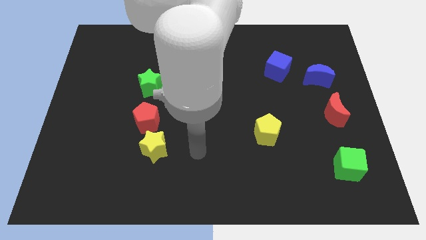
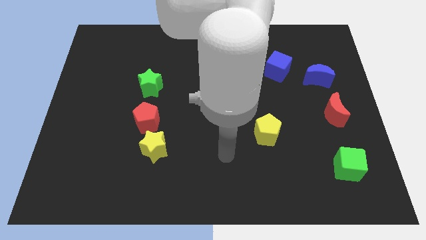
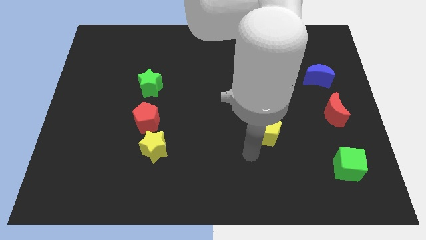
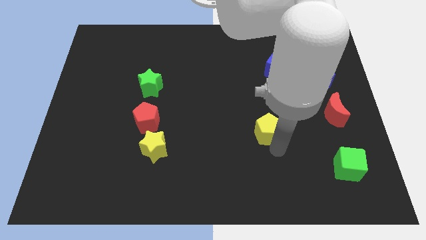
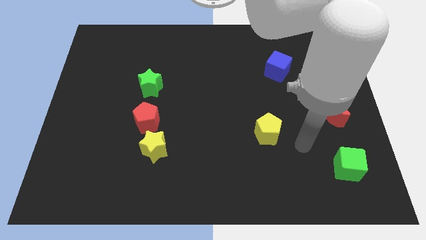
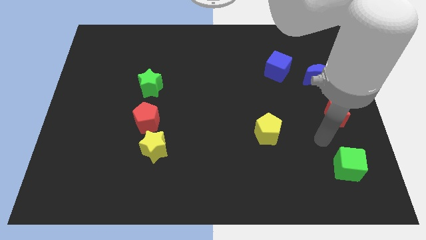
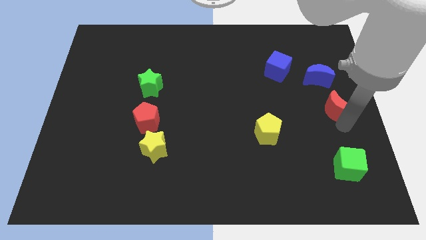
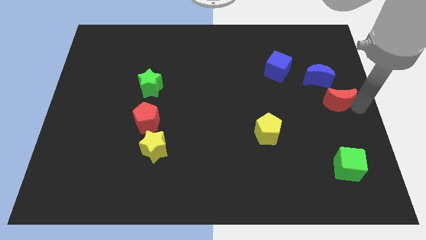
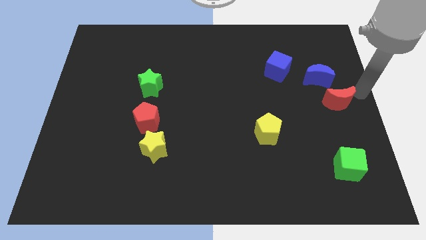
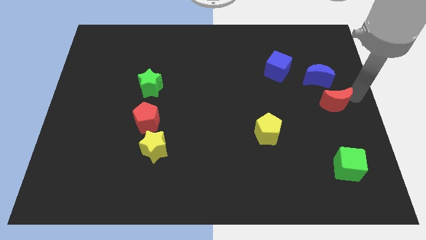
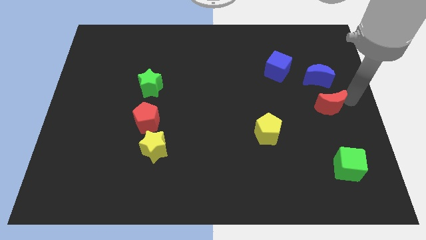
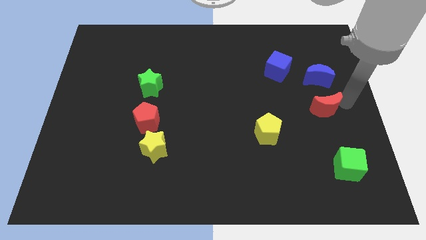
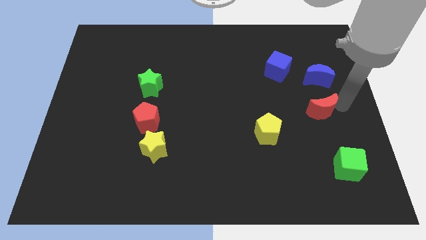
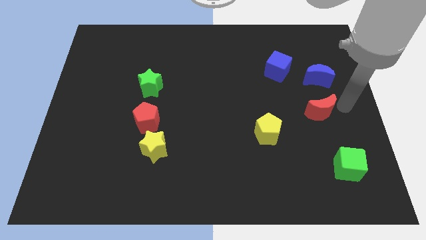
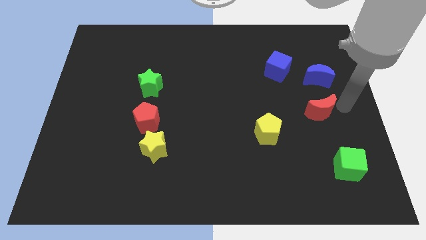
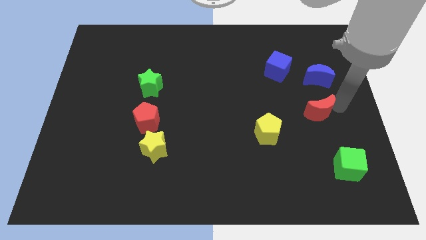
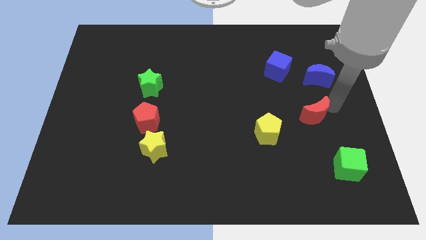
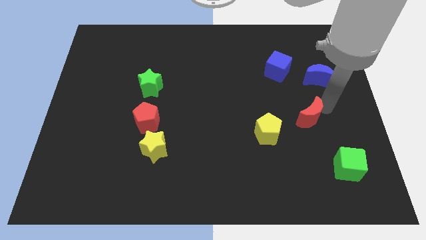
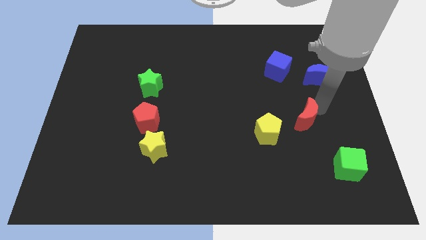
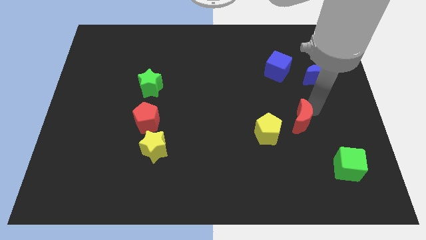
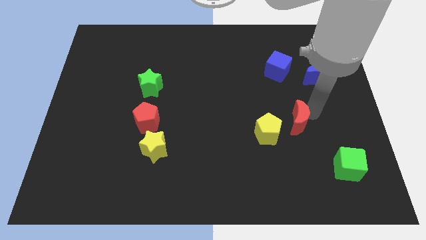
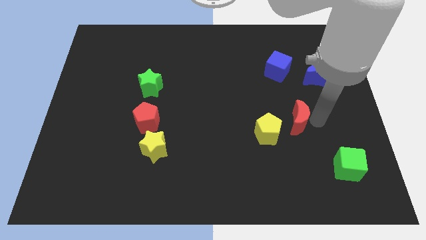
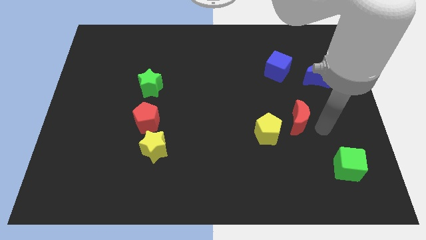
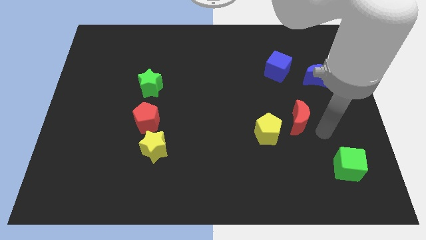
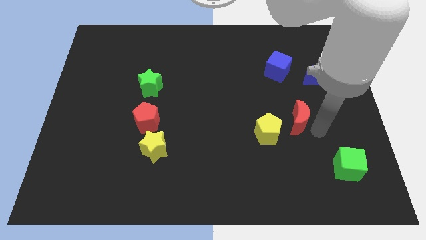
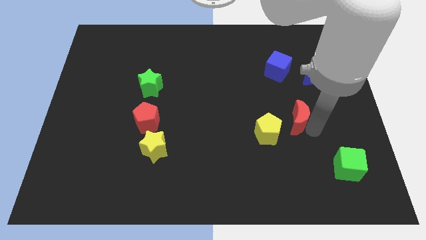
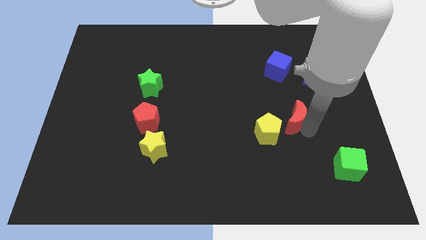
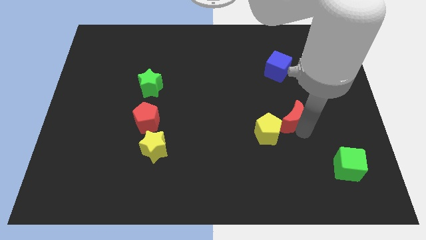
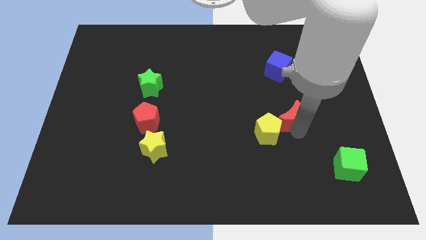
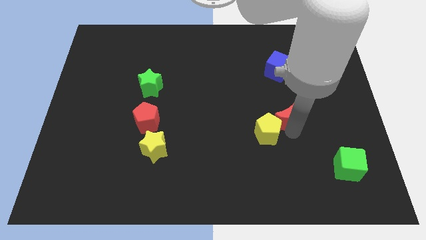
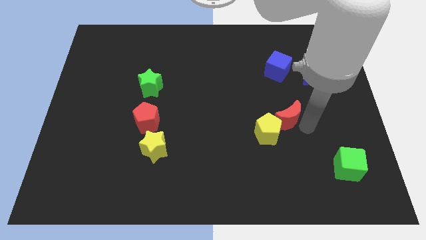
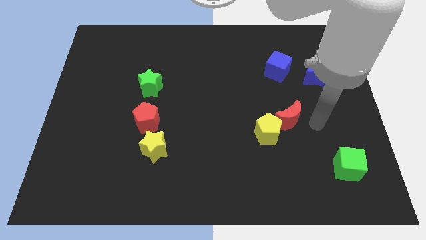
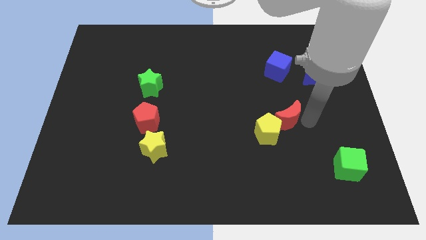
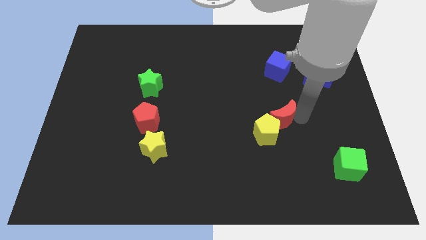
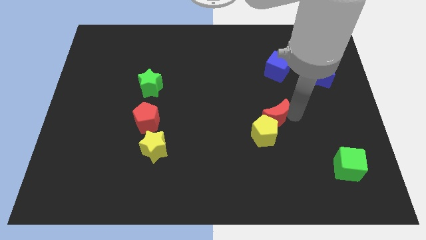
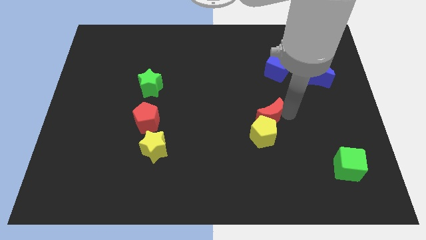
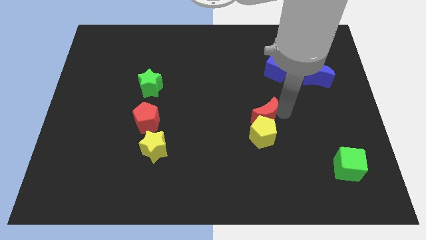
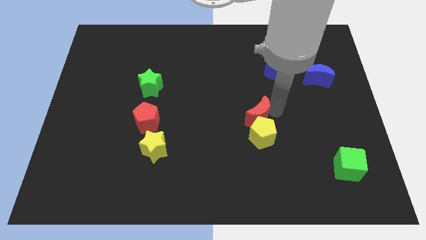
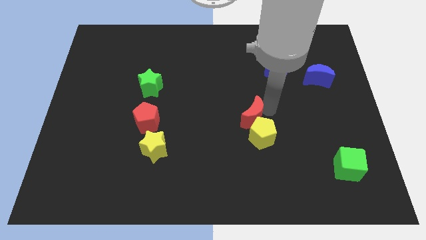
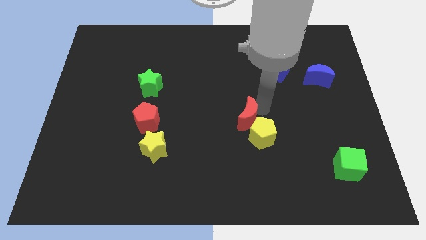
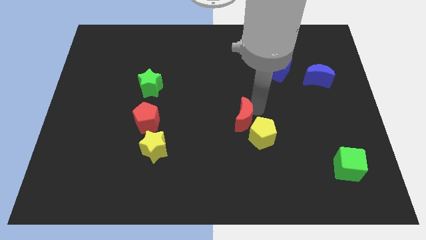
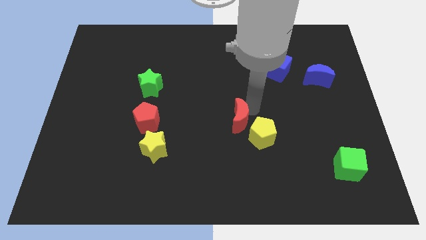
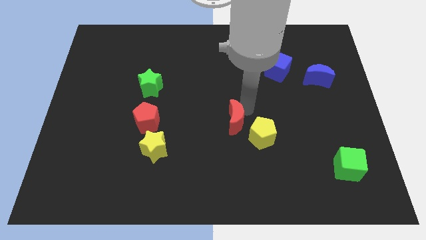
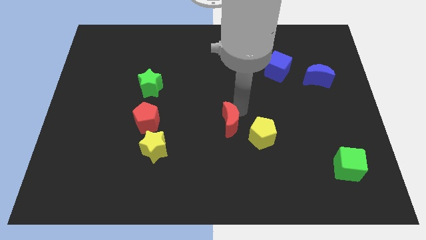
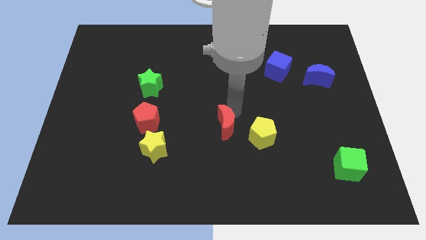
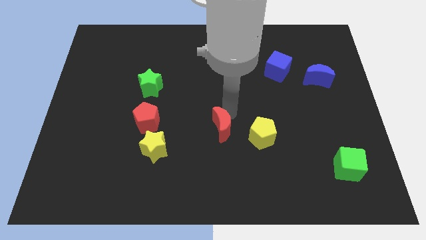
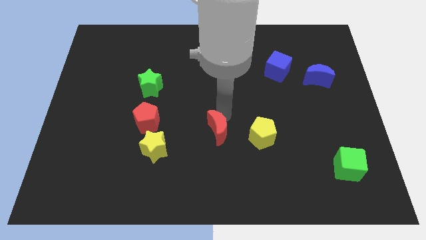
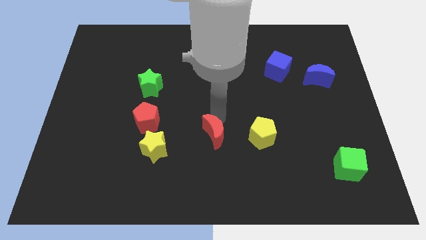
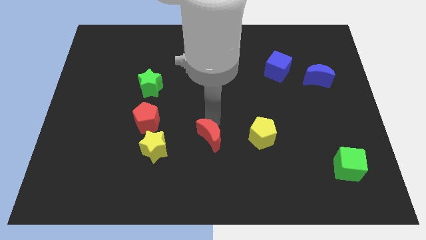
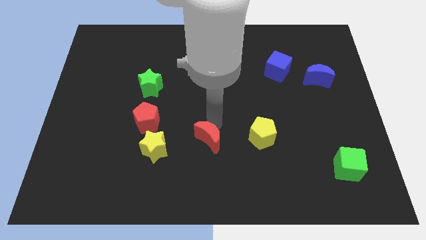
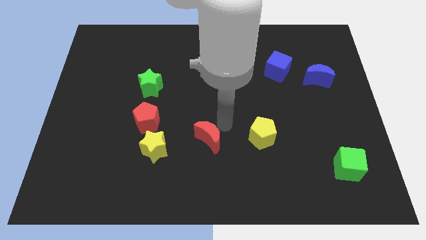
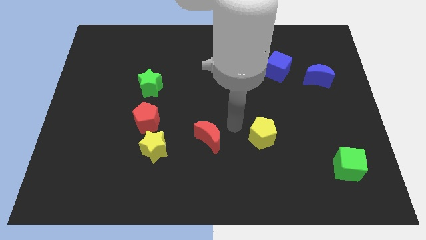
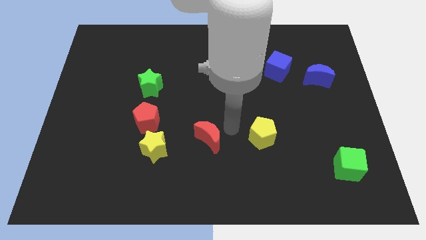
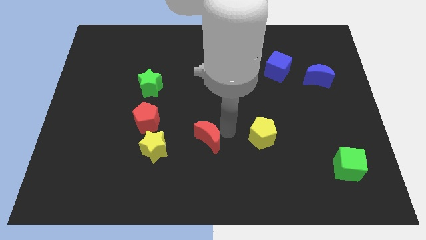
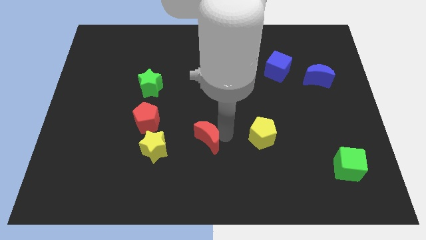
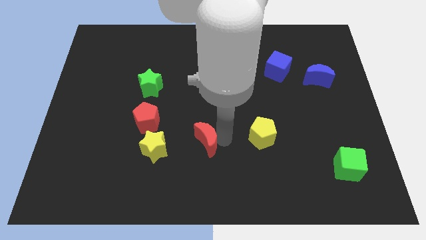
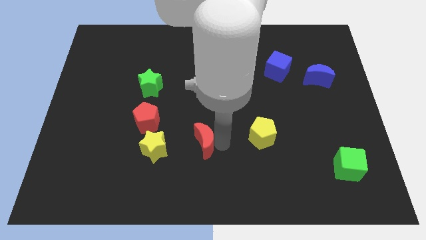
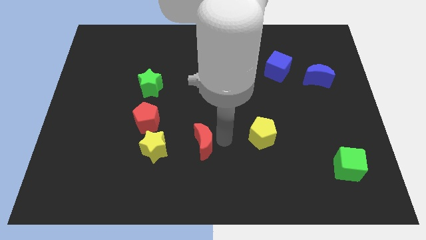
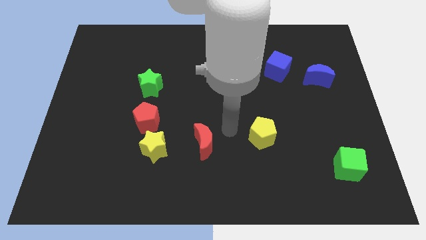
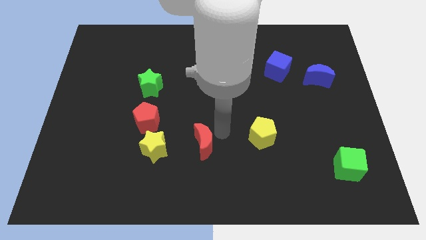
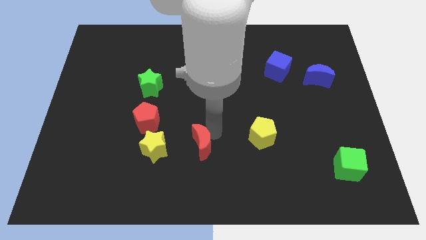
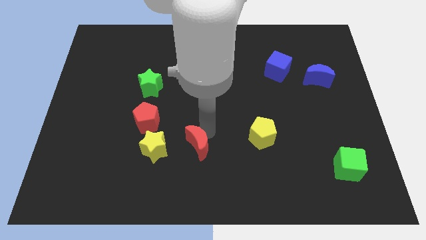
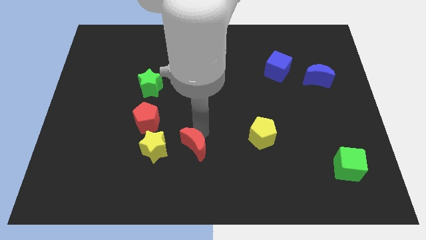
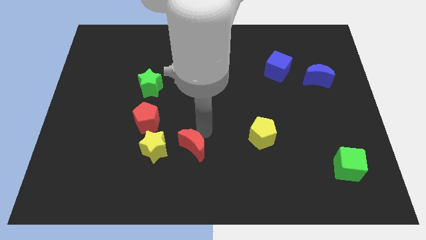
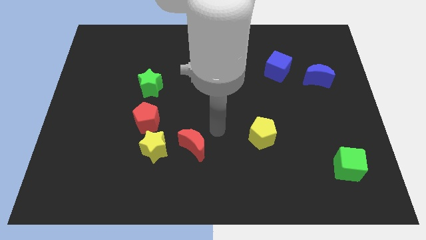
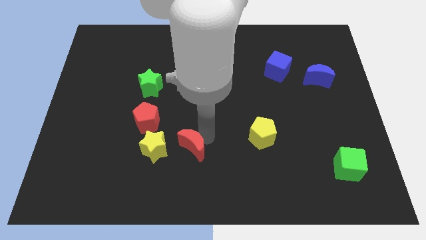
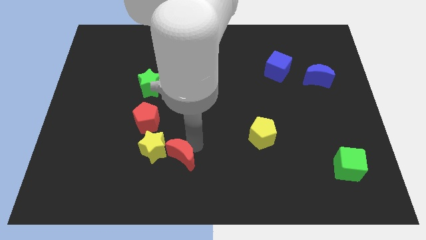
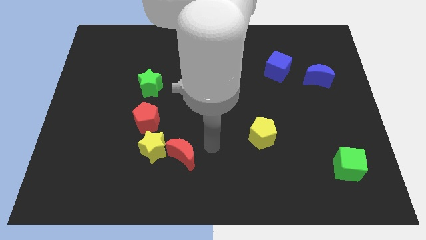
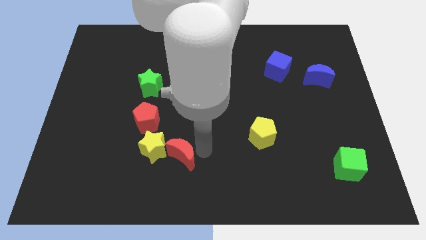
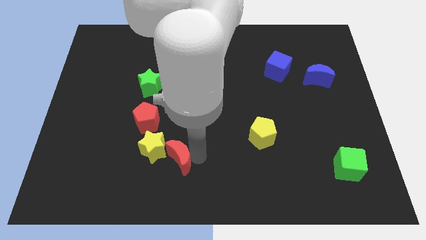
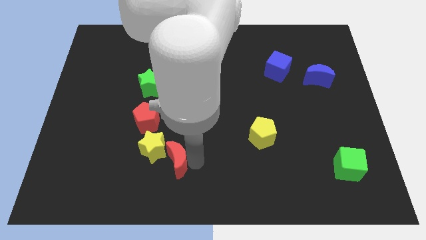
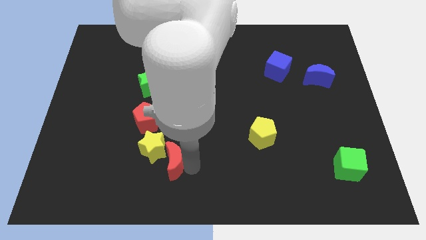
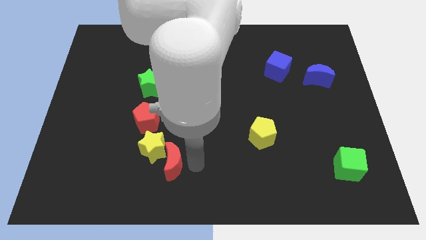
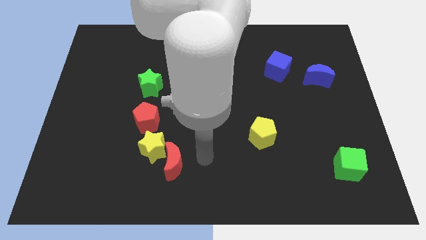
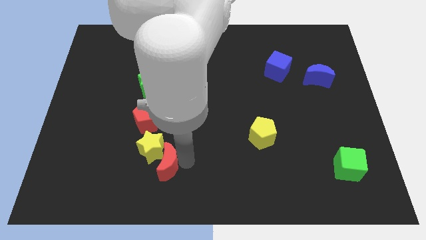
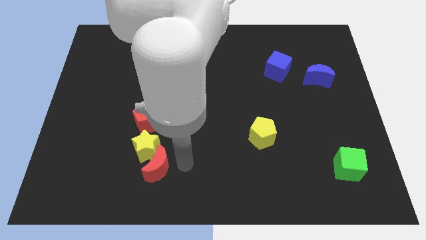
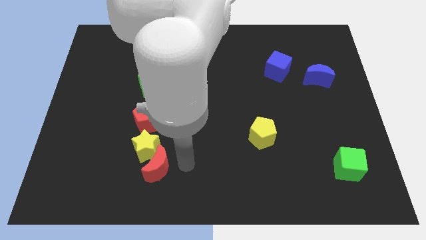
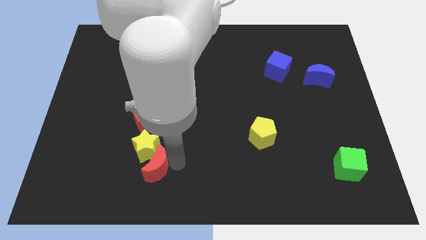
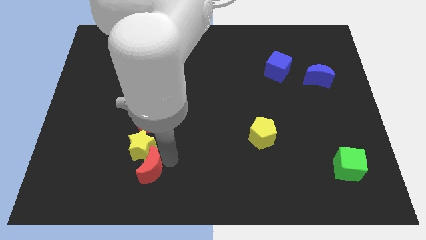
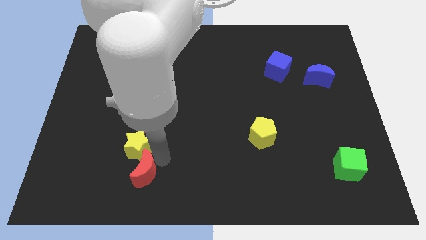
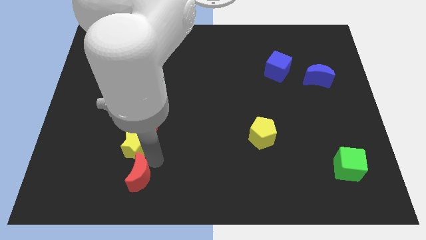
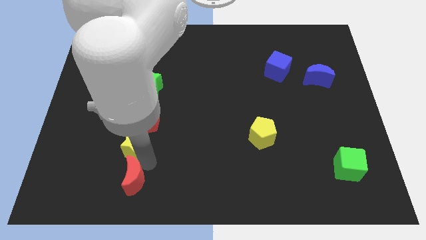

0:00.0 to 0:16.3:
push the red moon to the bottom left of the yellow star
